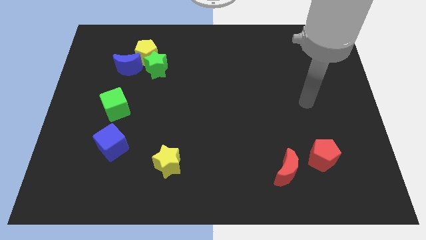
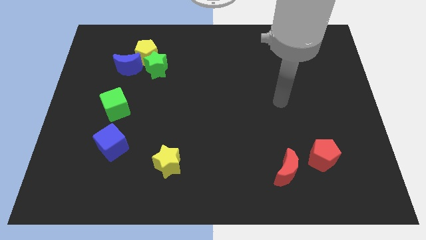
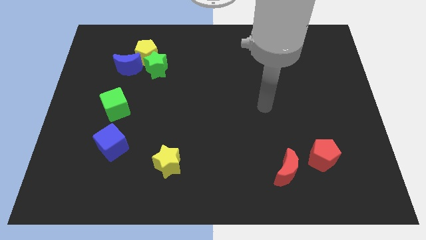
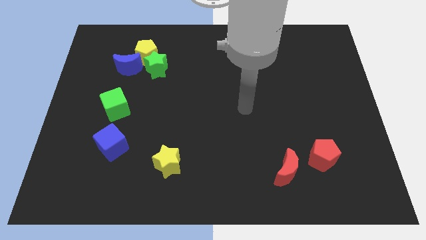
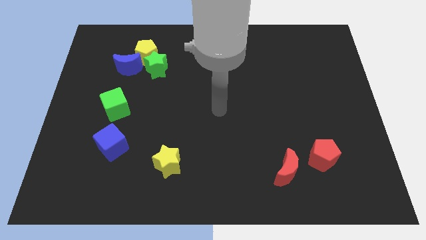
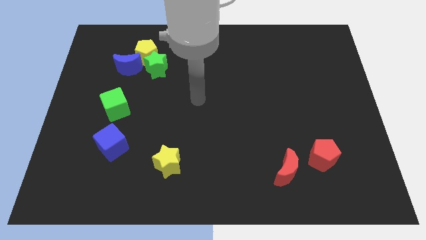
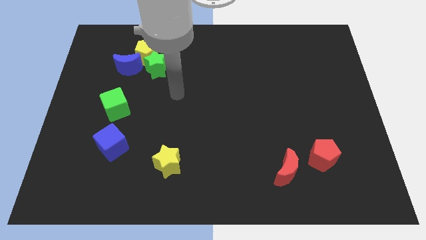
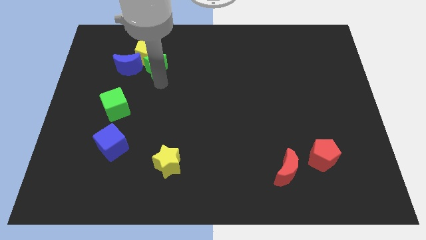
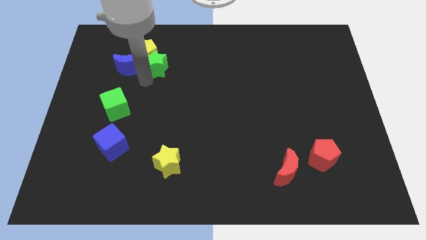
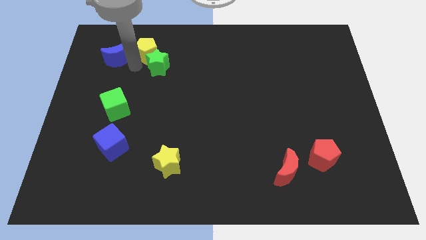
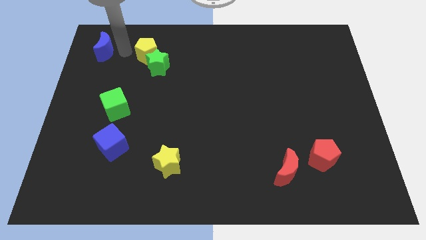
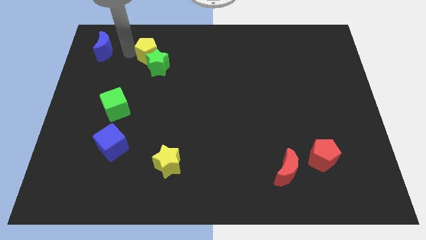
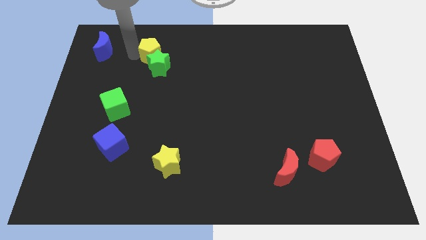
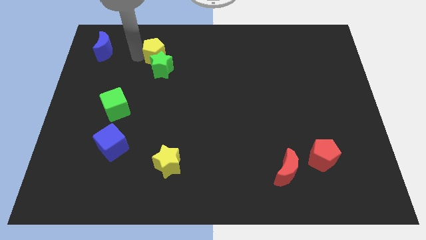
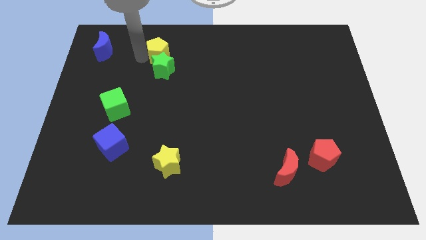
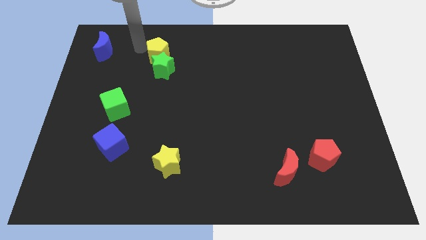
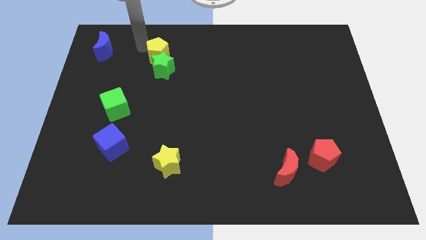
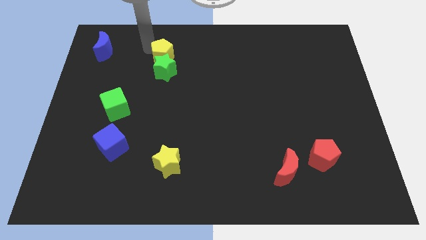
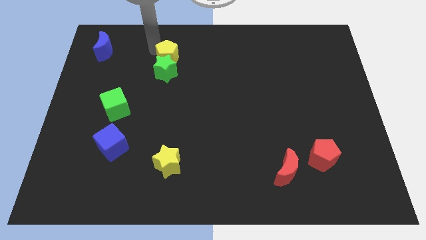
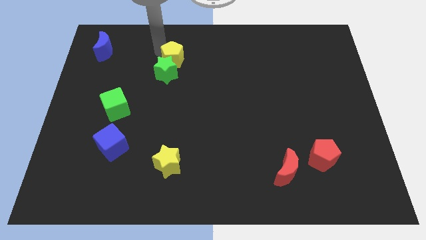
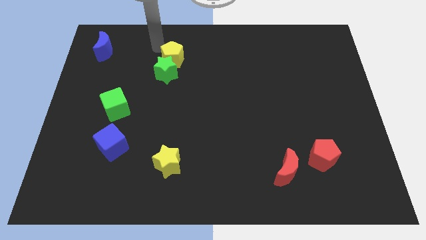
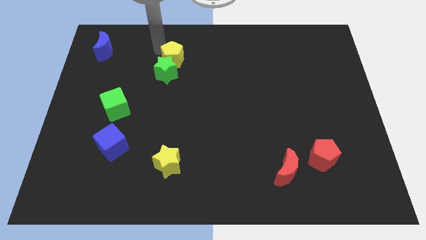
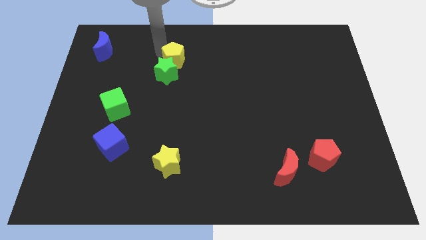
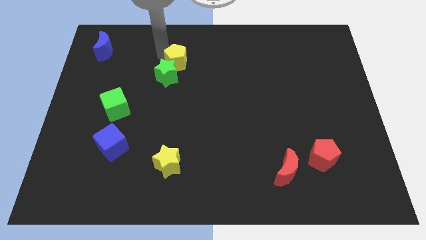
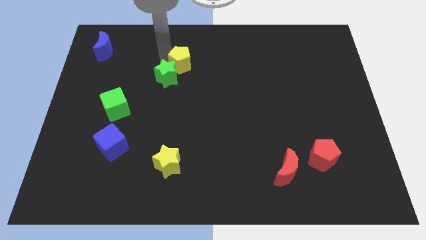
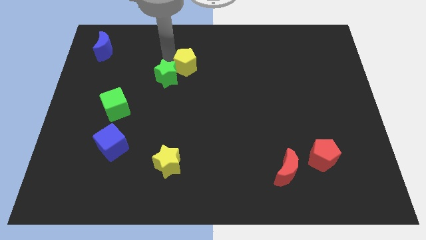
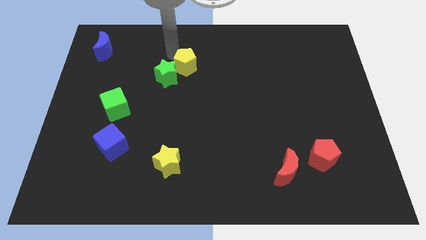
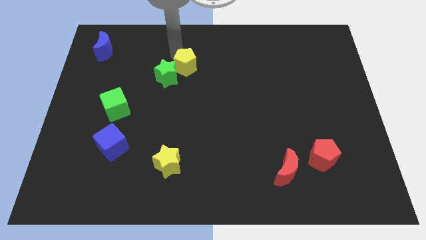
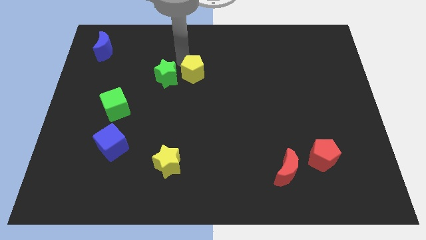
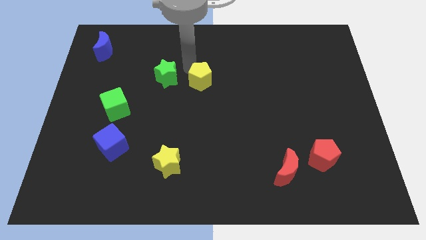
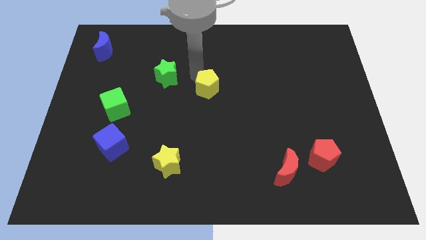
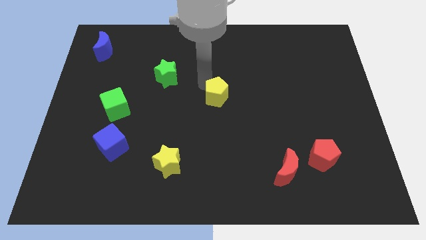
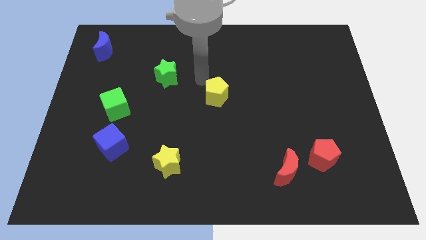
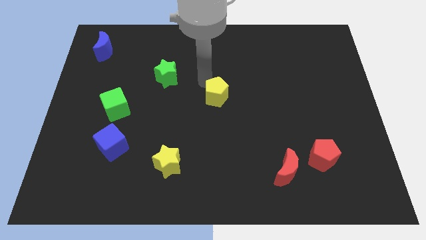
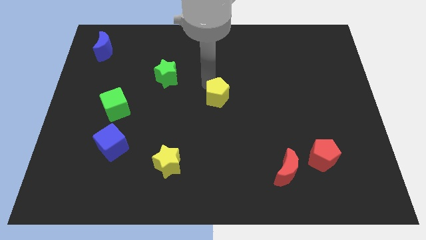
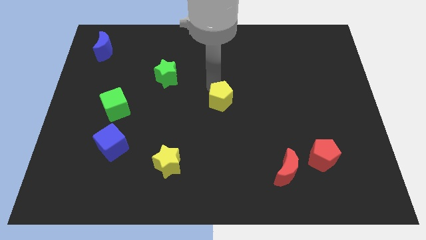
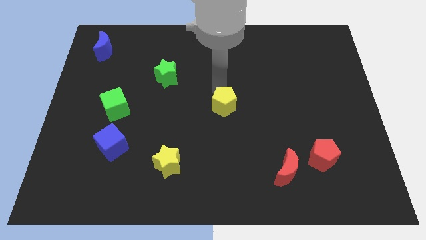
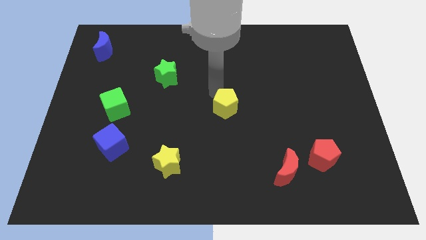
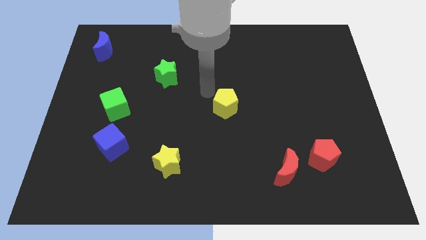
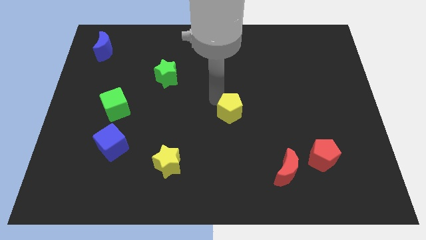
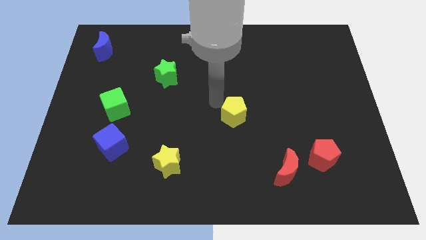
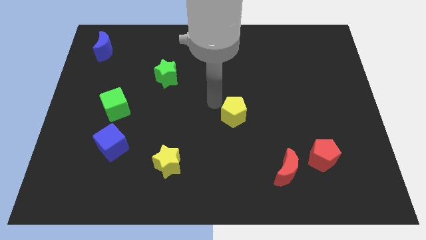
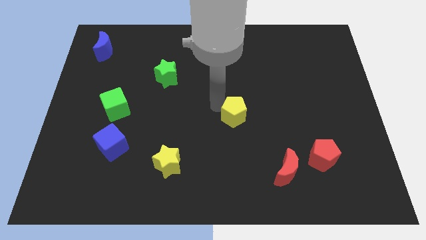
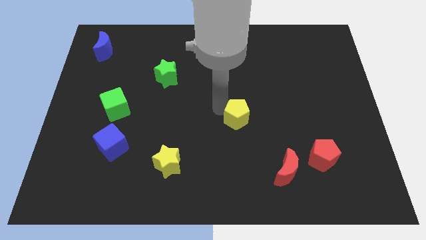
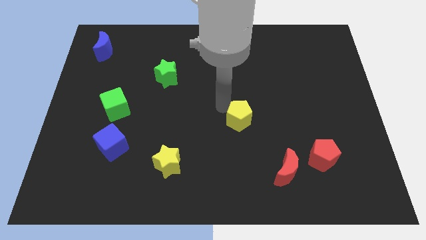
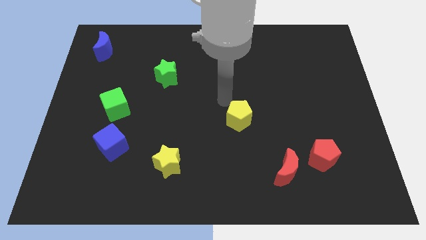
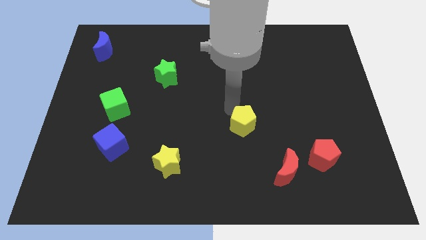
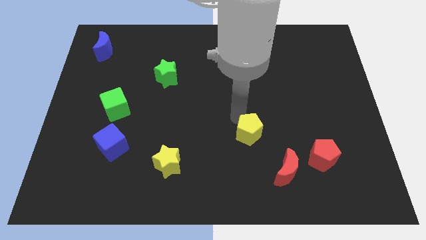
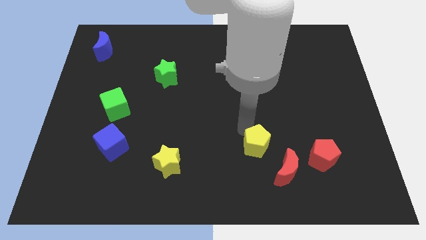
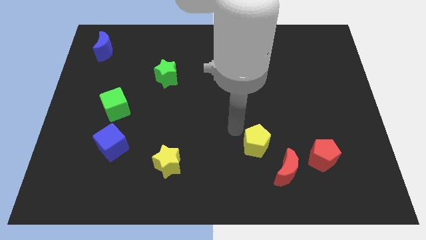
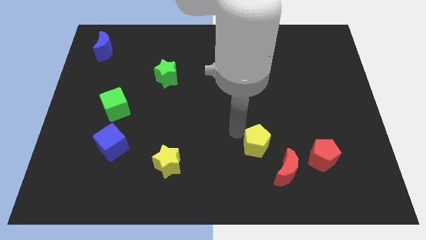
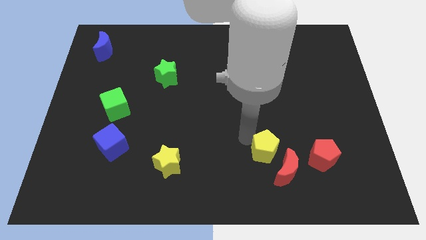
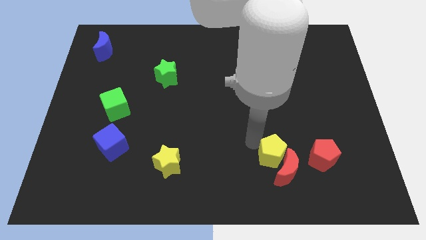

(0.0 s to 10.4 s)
put the yellow pentagon next to the red moon

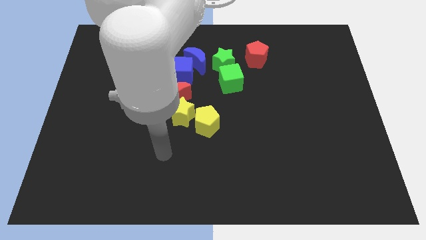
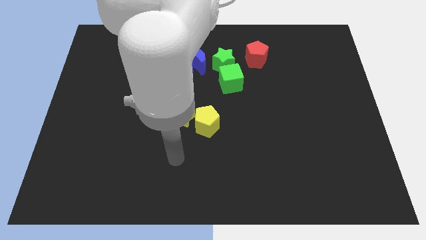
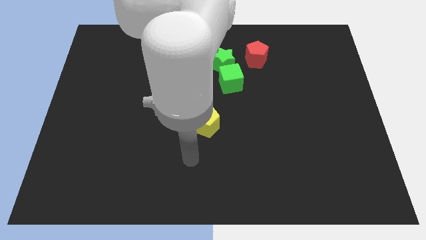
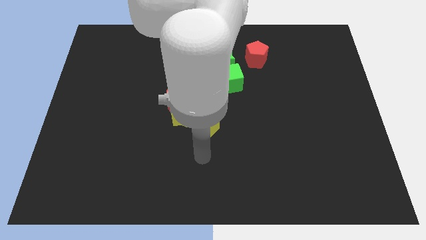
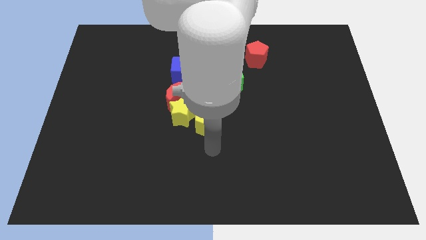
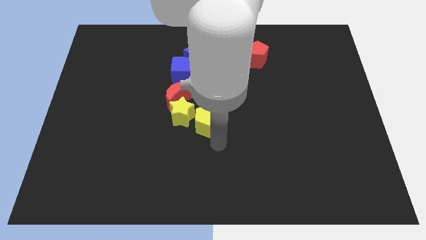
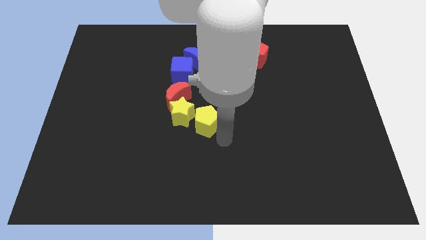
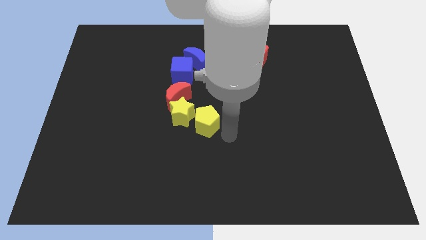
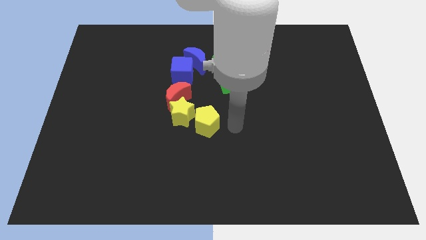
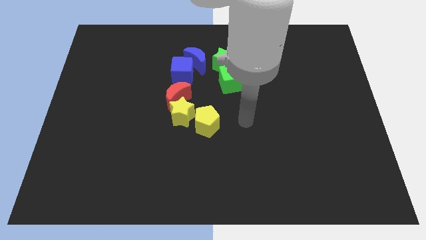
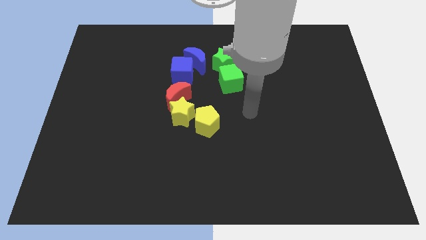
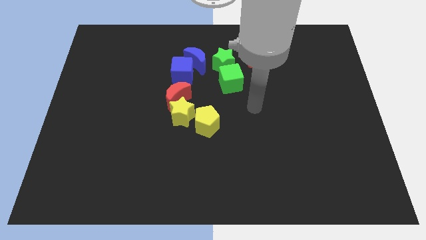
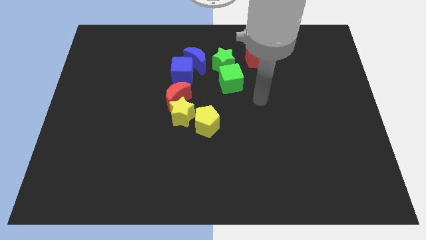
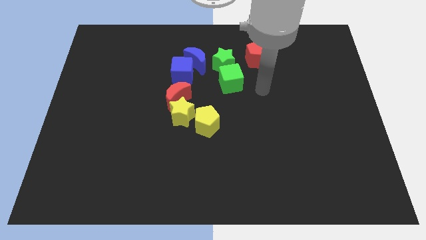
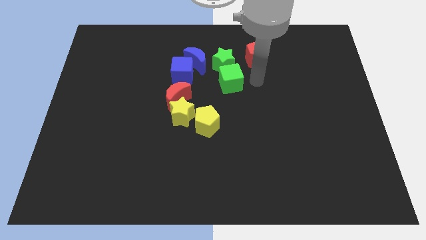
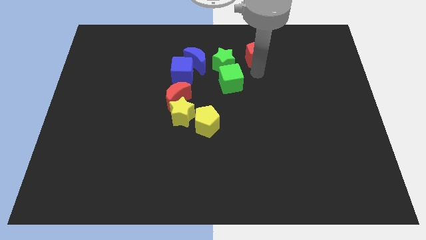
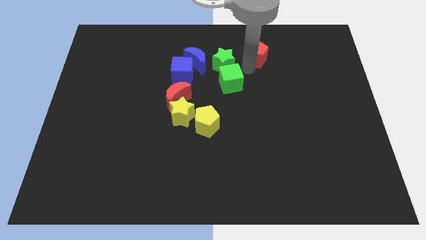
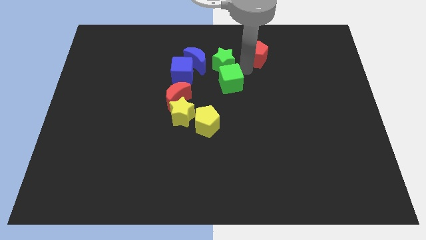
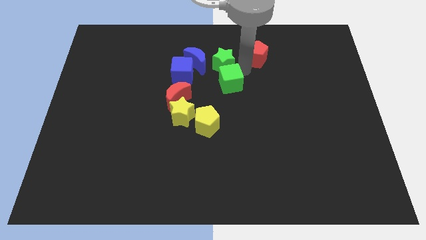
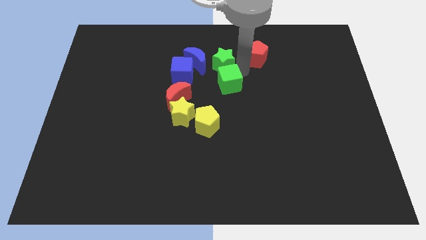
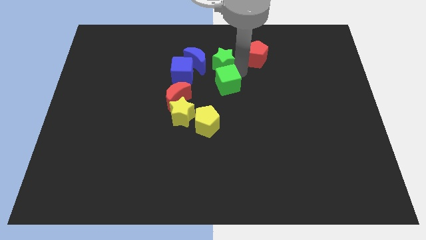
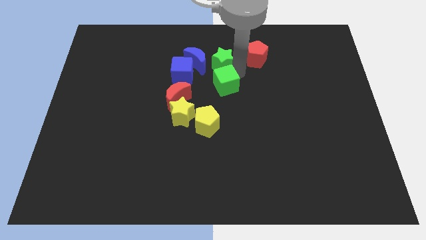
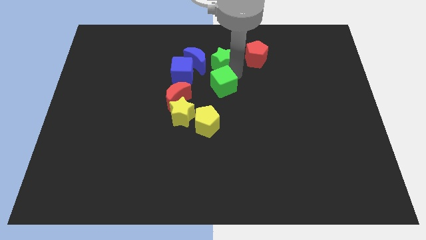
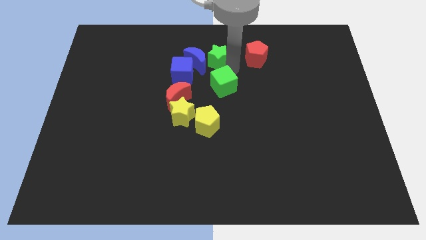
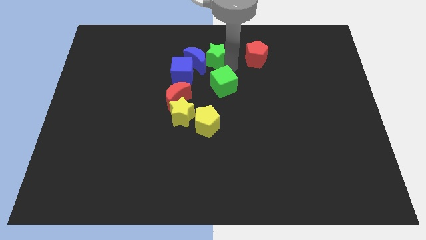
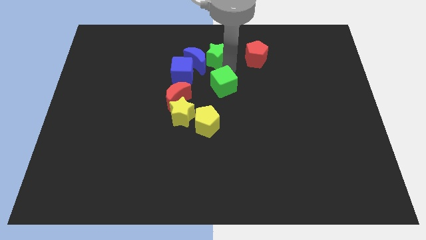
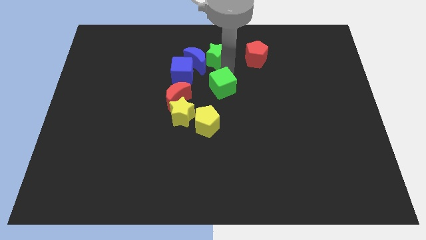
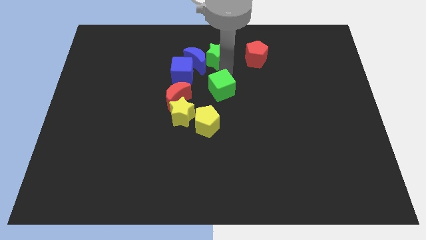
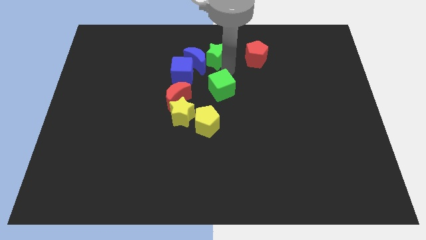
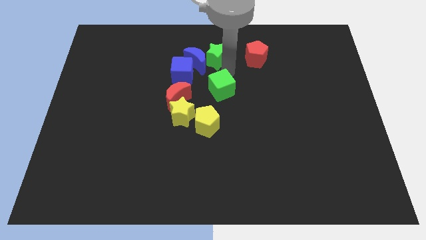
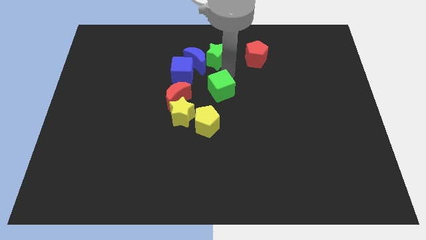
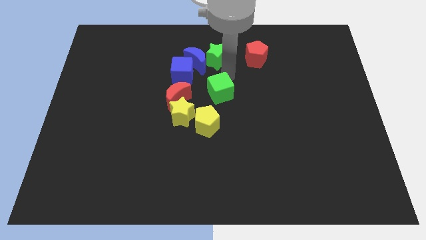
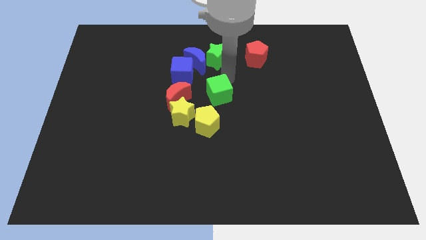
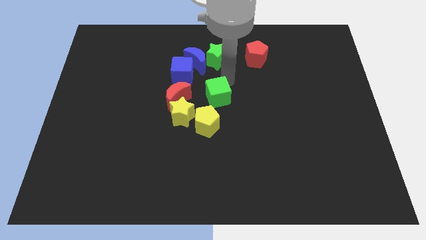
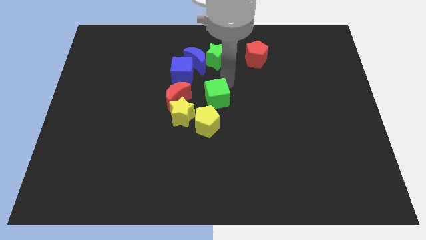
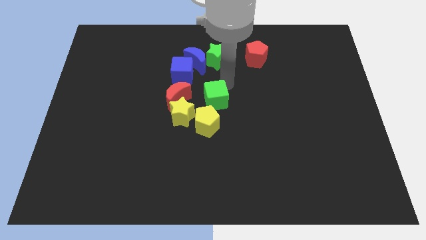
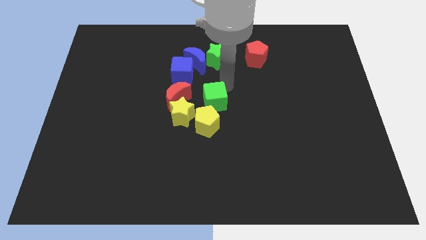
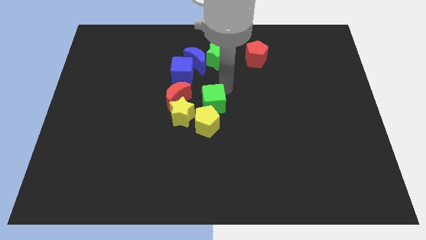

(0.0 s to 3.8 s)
slide the green cube to the yellow pentagon
